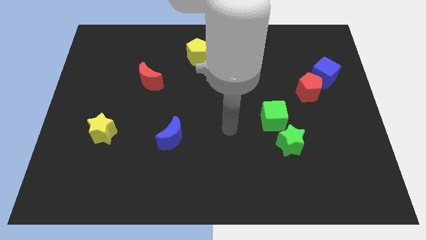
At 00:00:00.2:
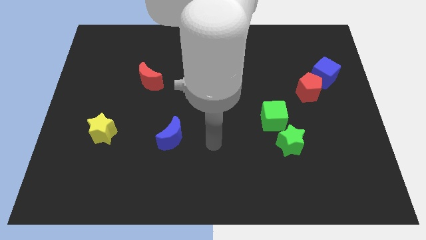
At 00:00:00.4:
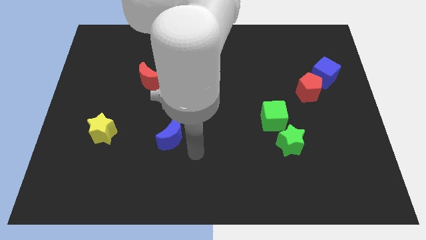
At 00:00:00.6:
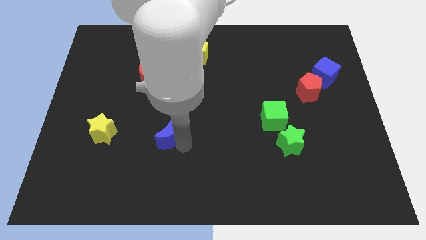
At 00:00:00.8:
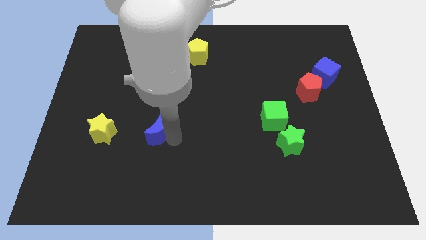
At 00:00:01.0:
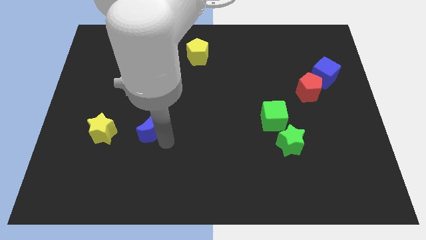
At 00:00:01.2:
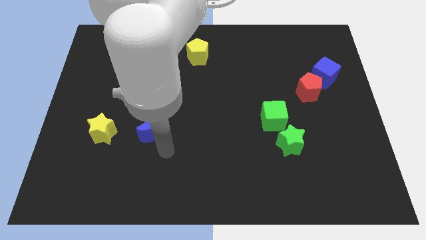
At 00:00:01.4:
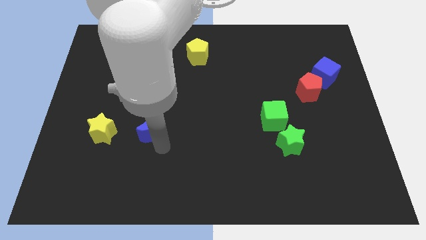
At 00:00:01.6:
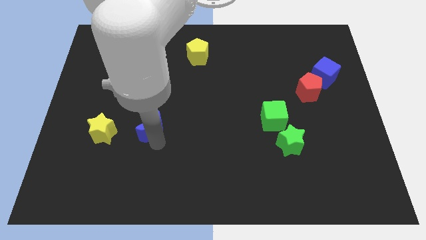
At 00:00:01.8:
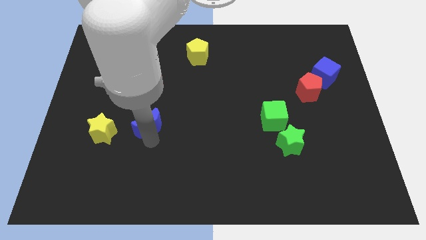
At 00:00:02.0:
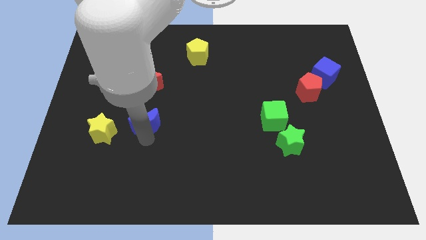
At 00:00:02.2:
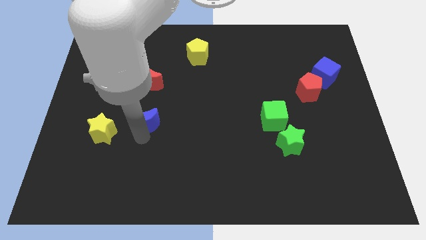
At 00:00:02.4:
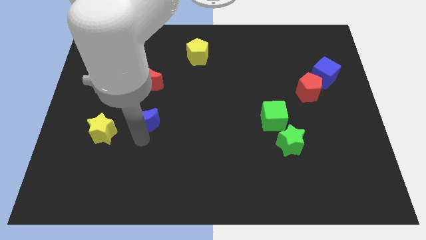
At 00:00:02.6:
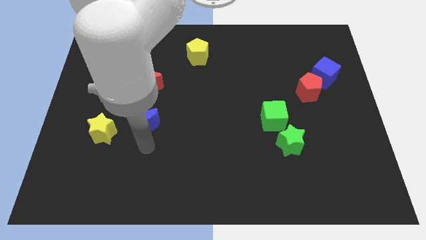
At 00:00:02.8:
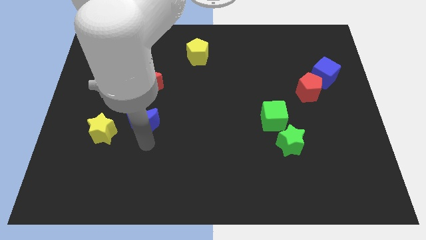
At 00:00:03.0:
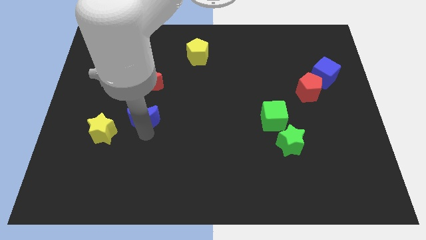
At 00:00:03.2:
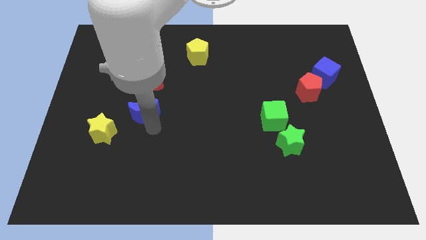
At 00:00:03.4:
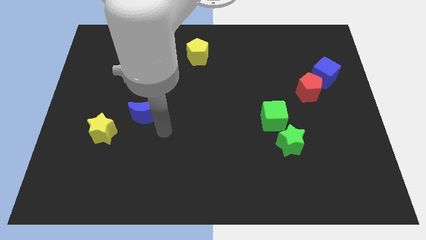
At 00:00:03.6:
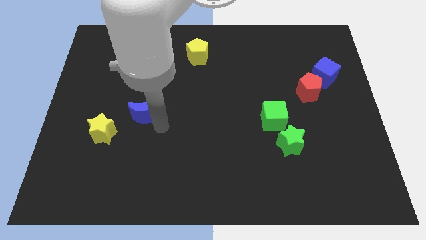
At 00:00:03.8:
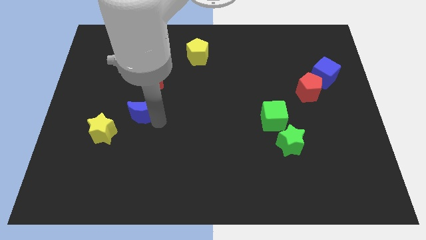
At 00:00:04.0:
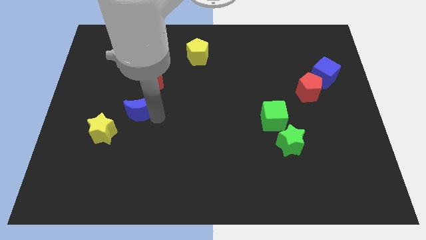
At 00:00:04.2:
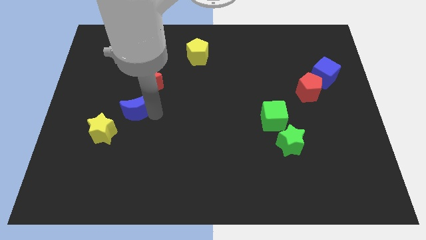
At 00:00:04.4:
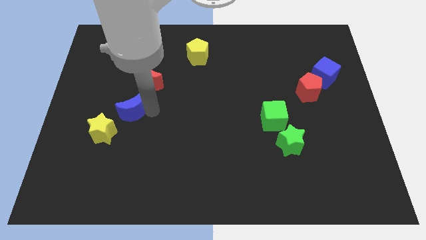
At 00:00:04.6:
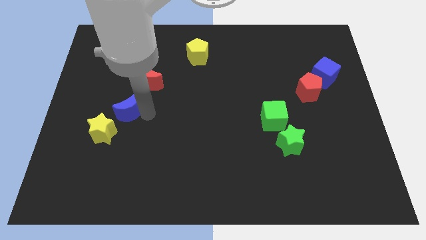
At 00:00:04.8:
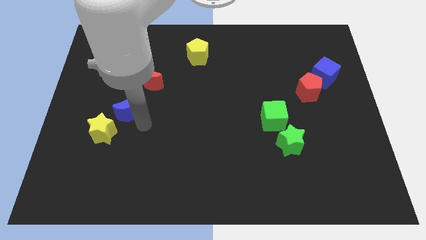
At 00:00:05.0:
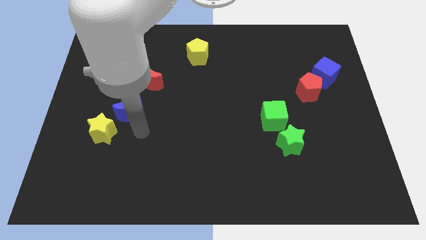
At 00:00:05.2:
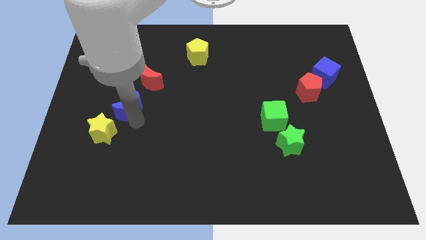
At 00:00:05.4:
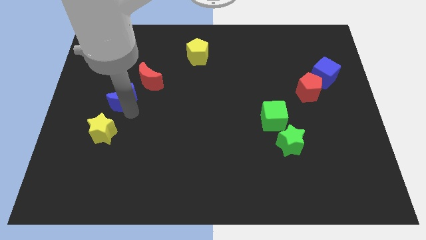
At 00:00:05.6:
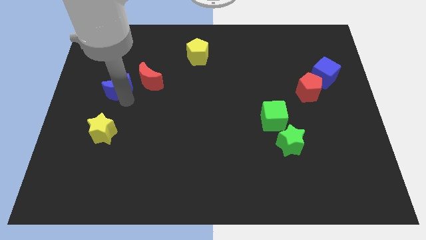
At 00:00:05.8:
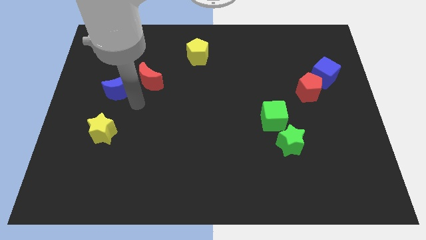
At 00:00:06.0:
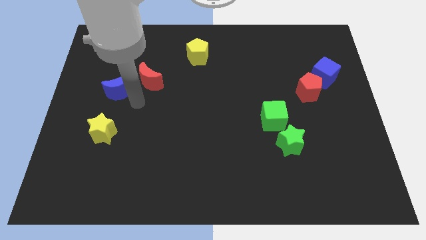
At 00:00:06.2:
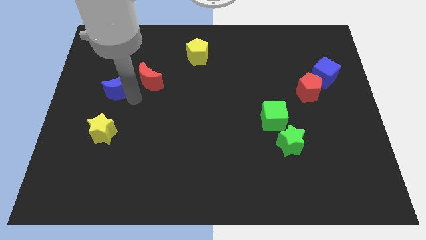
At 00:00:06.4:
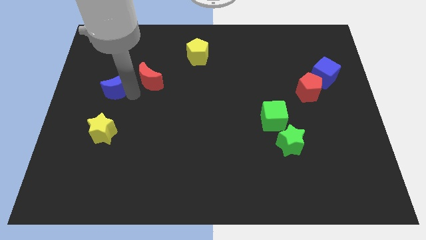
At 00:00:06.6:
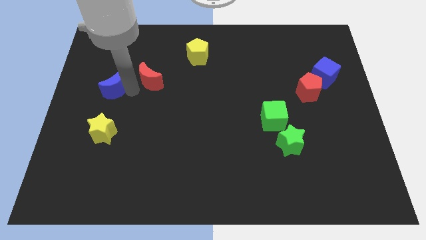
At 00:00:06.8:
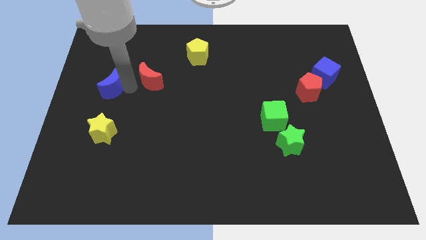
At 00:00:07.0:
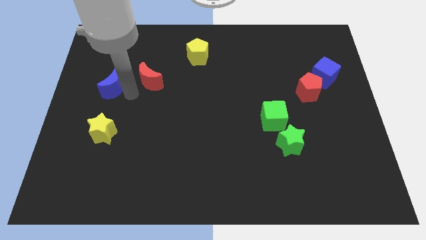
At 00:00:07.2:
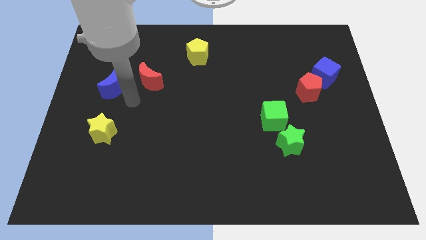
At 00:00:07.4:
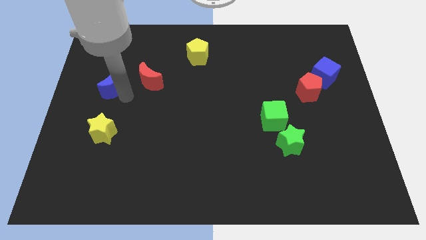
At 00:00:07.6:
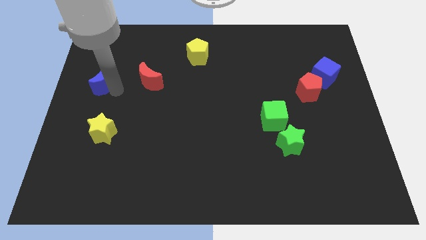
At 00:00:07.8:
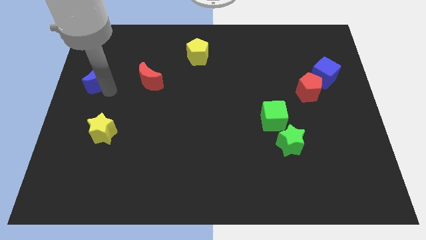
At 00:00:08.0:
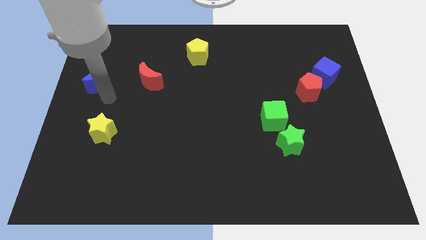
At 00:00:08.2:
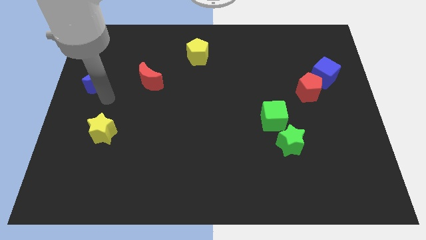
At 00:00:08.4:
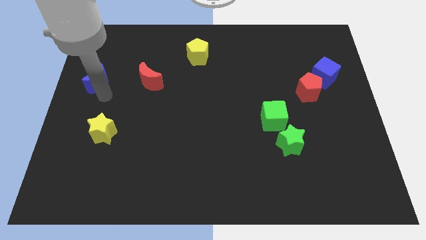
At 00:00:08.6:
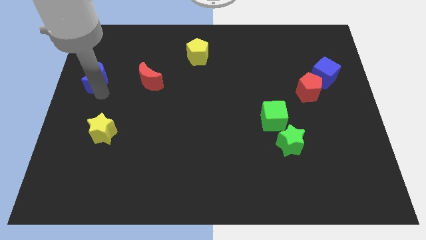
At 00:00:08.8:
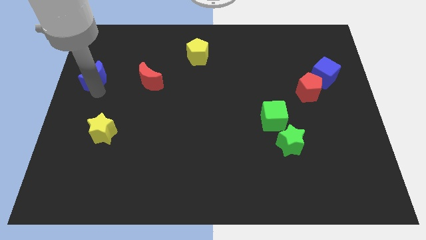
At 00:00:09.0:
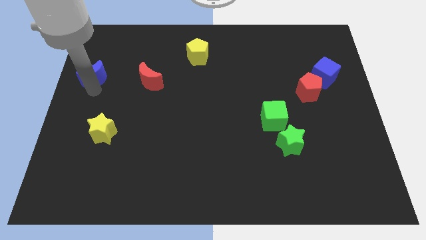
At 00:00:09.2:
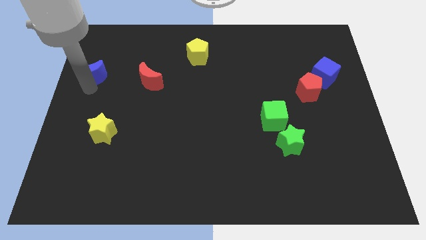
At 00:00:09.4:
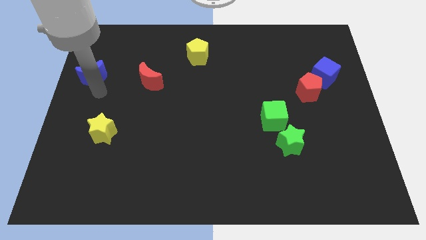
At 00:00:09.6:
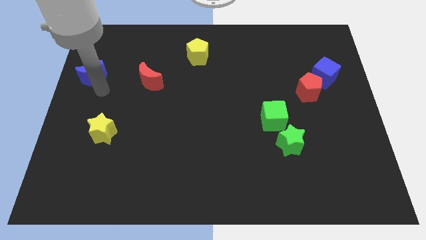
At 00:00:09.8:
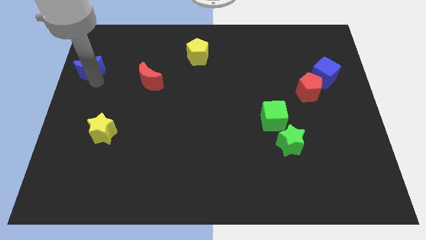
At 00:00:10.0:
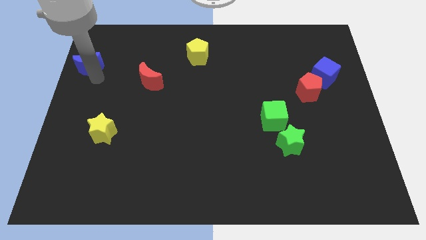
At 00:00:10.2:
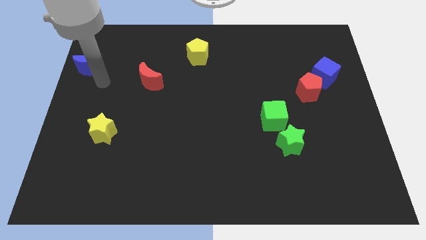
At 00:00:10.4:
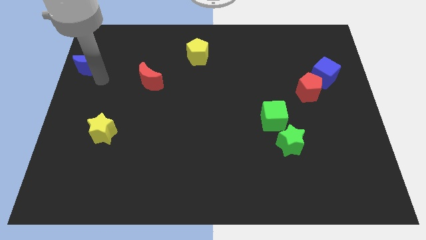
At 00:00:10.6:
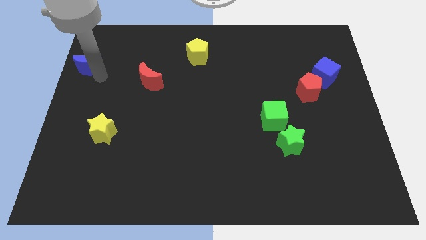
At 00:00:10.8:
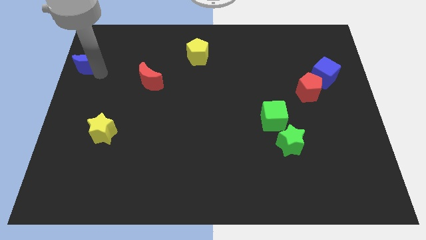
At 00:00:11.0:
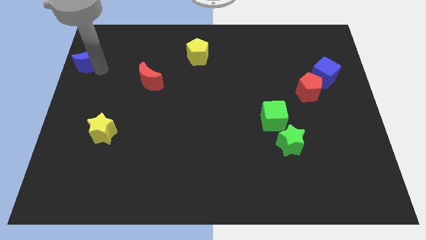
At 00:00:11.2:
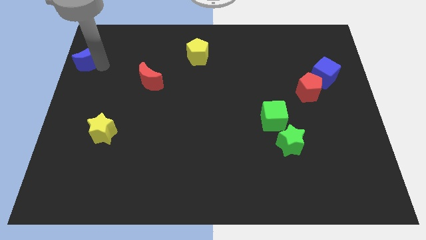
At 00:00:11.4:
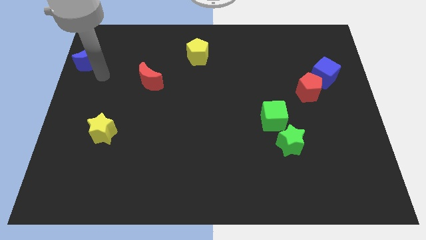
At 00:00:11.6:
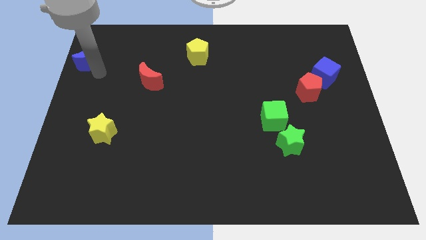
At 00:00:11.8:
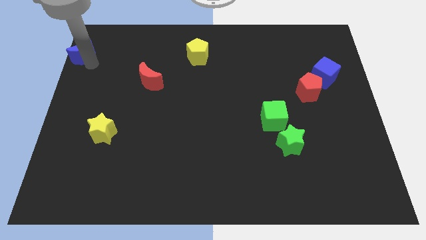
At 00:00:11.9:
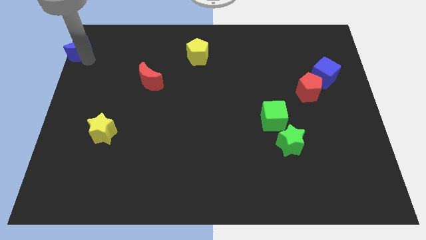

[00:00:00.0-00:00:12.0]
move the blue moon to the top left of the board
